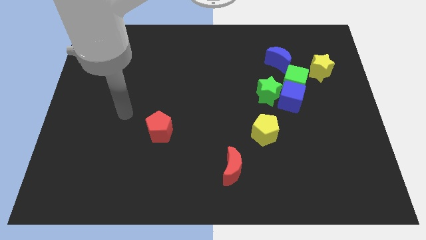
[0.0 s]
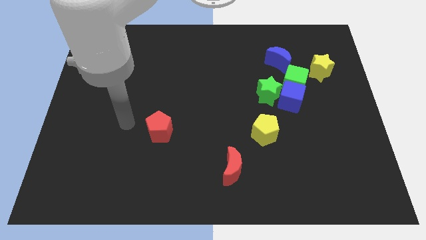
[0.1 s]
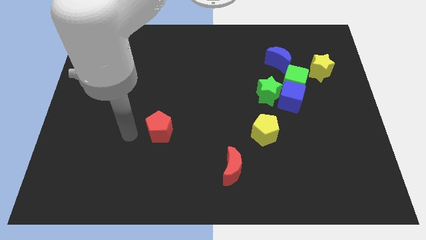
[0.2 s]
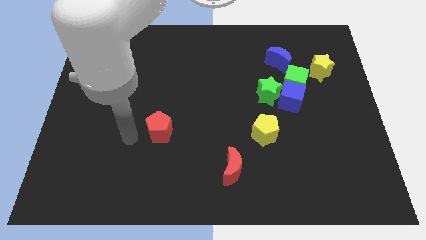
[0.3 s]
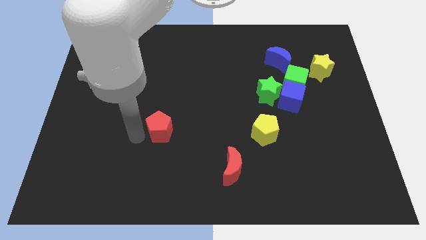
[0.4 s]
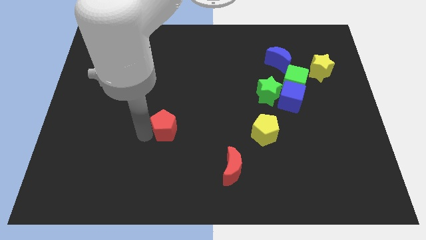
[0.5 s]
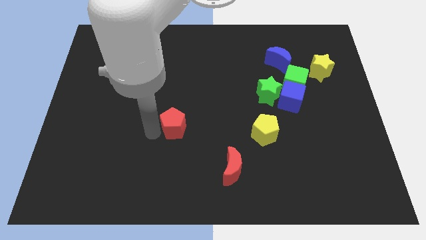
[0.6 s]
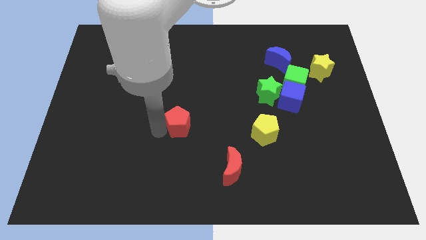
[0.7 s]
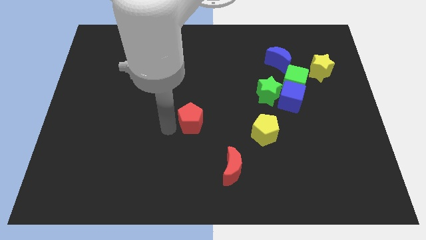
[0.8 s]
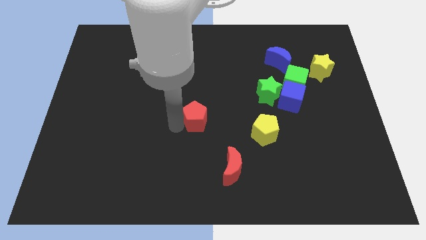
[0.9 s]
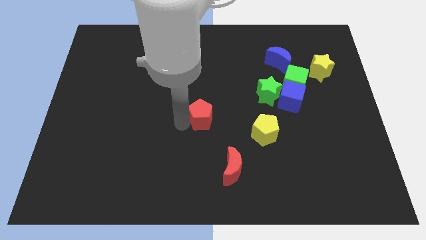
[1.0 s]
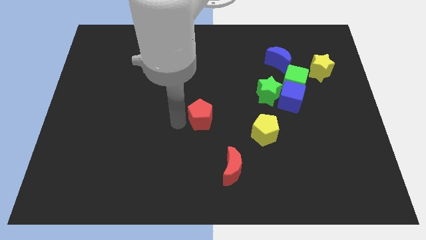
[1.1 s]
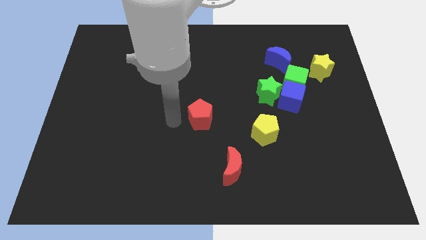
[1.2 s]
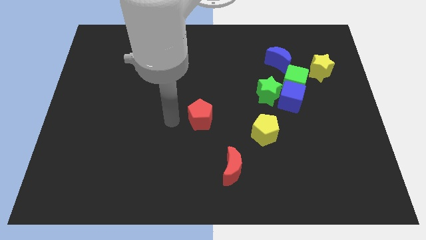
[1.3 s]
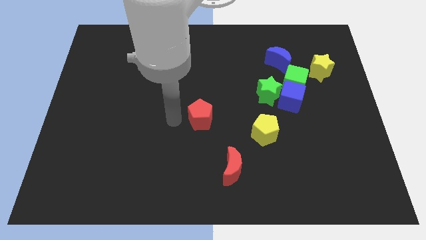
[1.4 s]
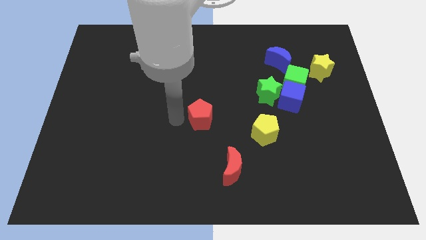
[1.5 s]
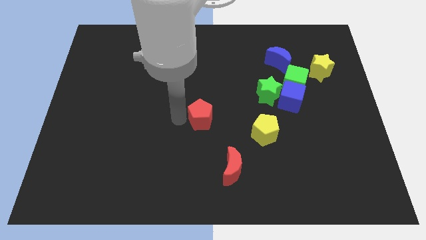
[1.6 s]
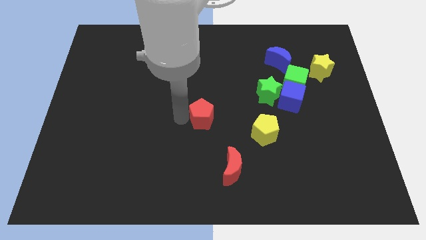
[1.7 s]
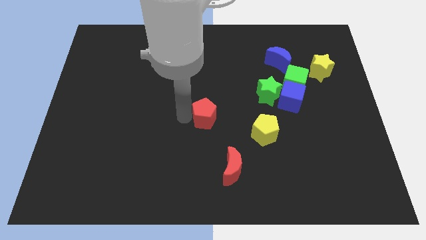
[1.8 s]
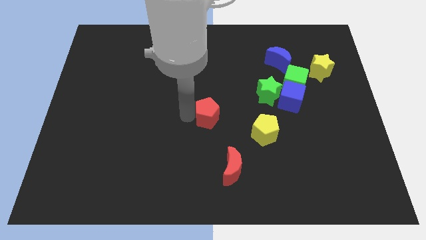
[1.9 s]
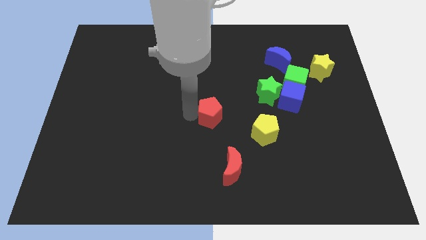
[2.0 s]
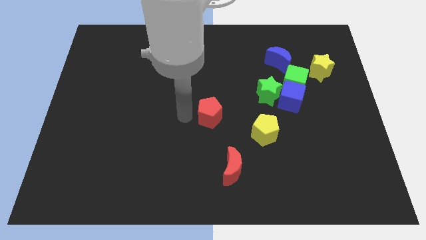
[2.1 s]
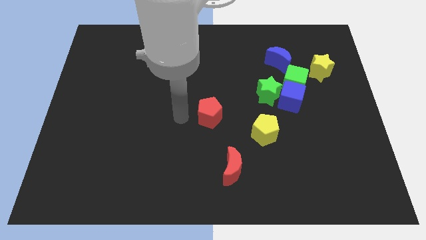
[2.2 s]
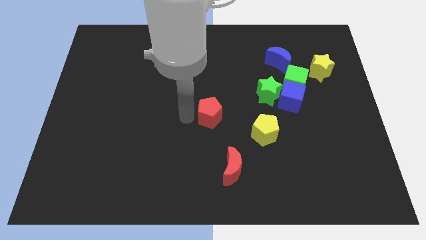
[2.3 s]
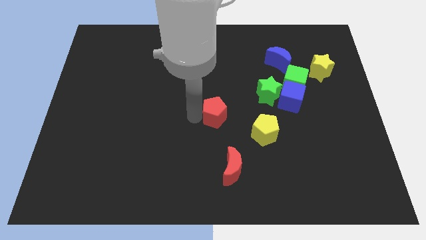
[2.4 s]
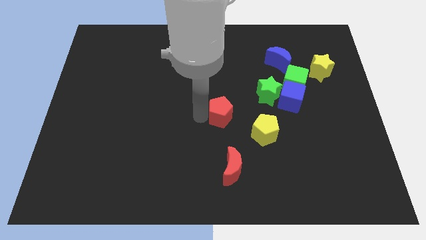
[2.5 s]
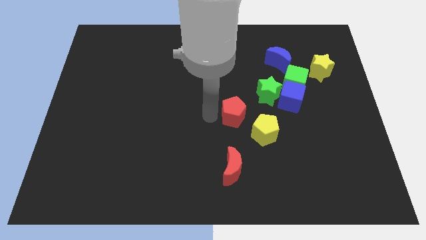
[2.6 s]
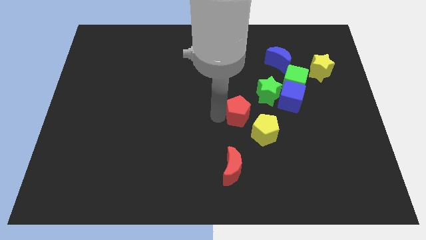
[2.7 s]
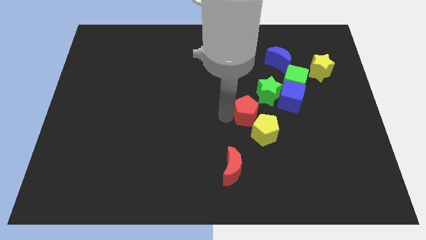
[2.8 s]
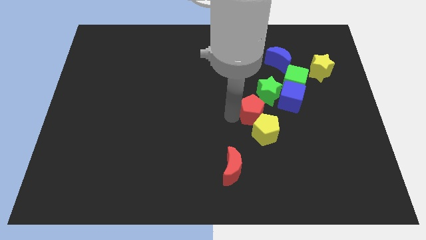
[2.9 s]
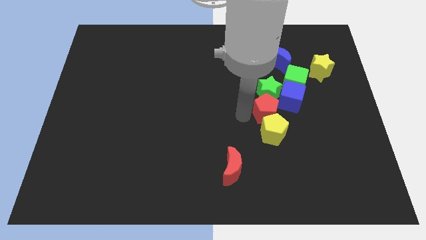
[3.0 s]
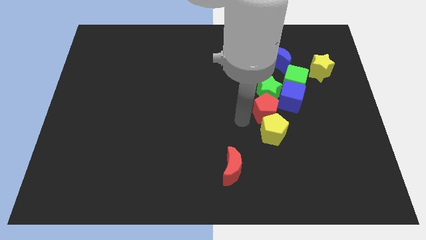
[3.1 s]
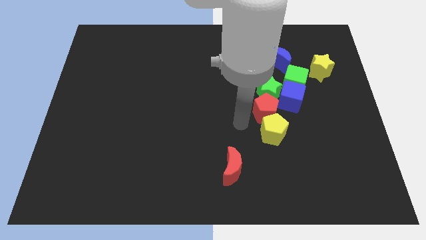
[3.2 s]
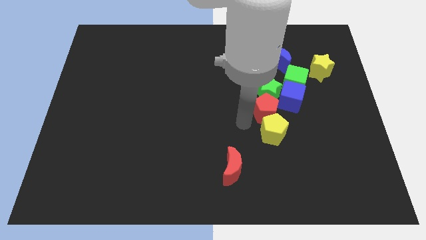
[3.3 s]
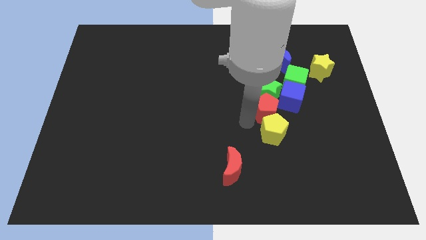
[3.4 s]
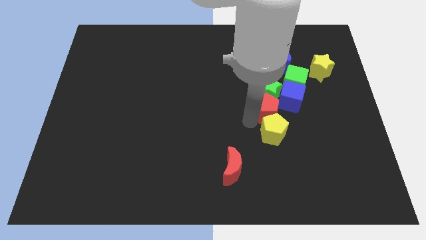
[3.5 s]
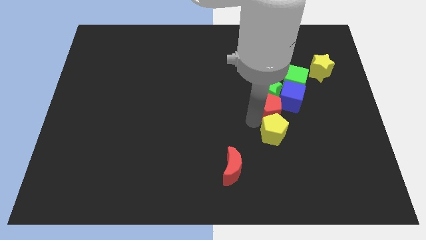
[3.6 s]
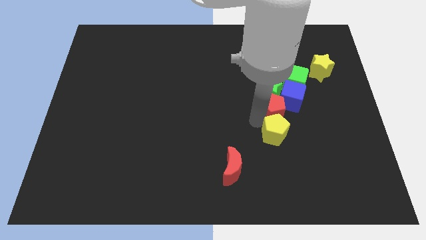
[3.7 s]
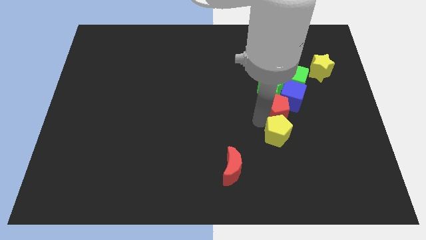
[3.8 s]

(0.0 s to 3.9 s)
move the red pentagon close to the blue cube

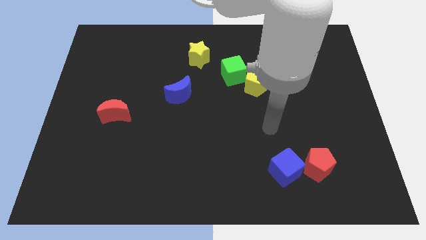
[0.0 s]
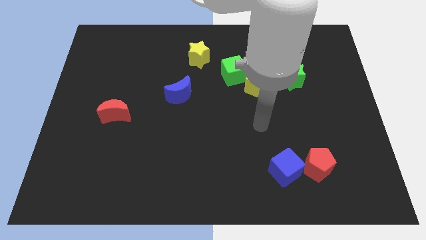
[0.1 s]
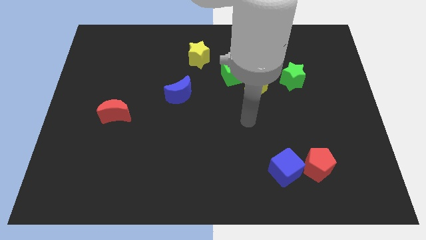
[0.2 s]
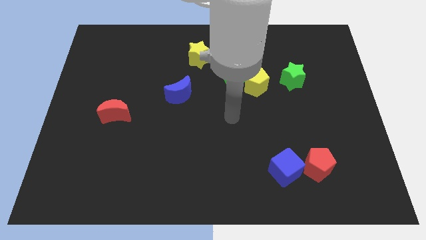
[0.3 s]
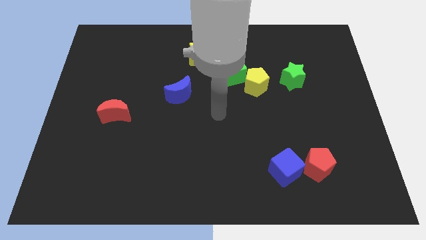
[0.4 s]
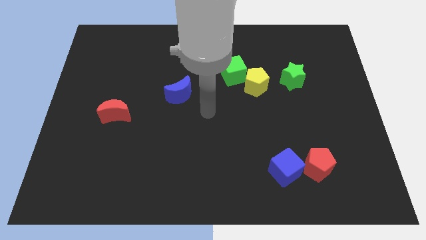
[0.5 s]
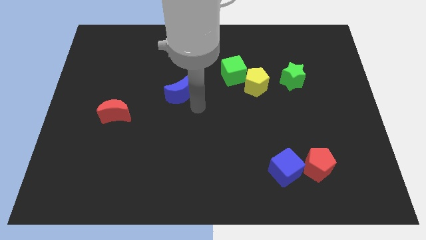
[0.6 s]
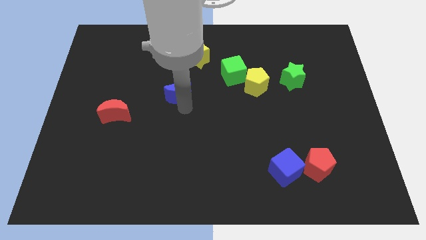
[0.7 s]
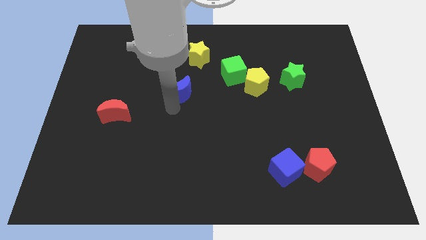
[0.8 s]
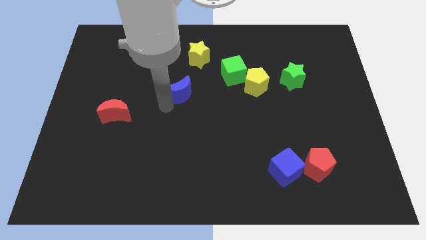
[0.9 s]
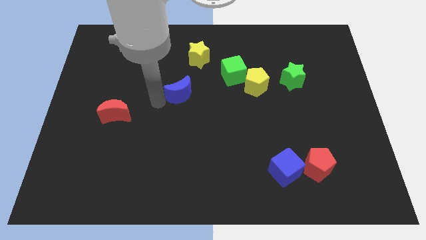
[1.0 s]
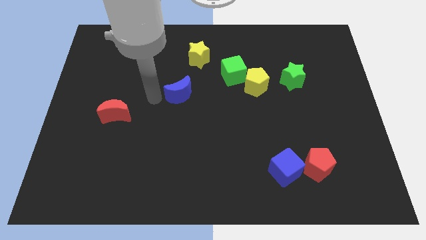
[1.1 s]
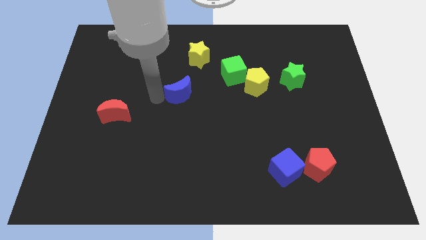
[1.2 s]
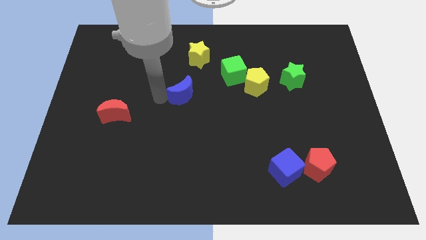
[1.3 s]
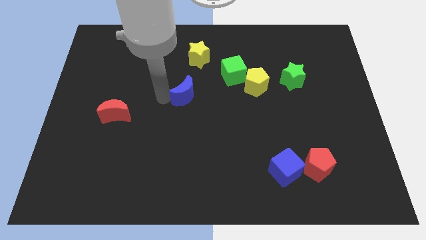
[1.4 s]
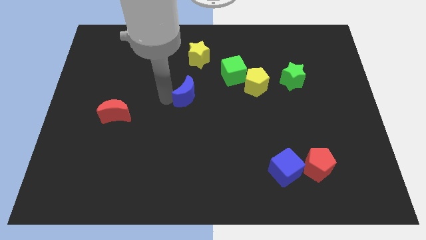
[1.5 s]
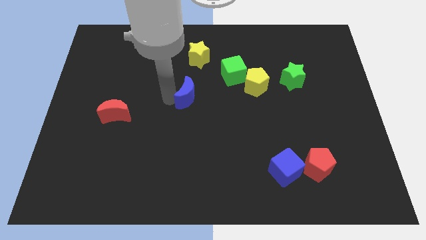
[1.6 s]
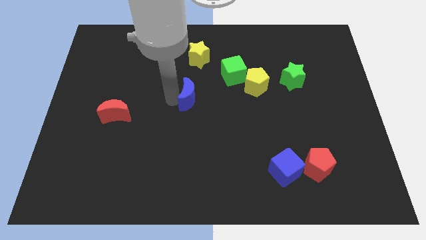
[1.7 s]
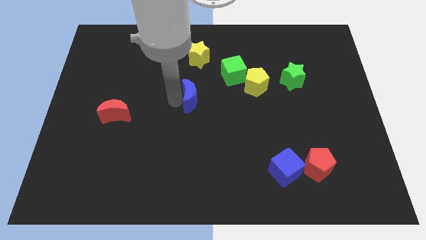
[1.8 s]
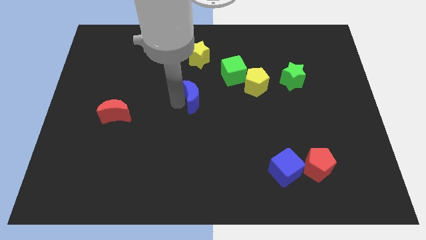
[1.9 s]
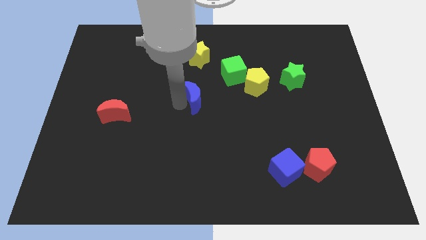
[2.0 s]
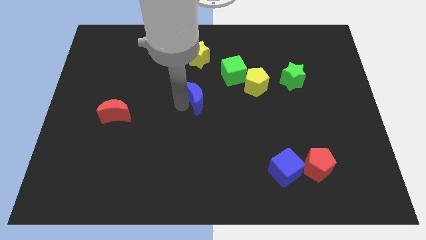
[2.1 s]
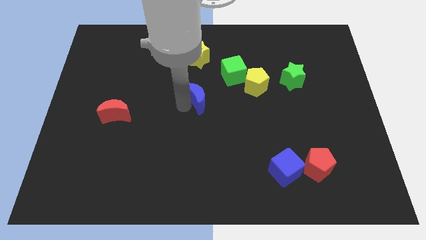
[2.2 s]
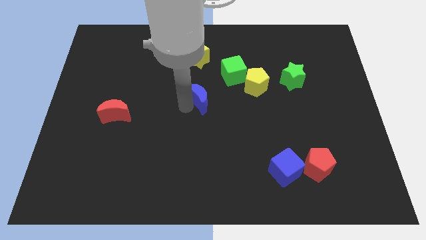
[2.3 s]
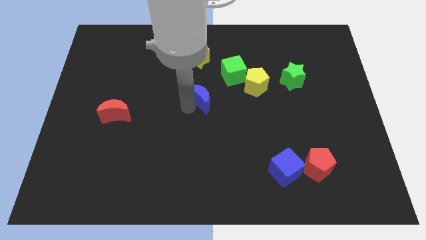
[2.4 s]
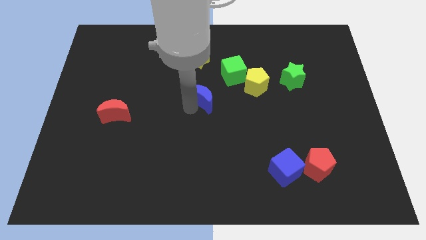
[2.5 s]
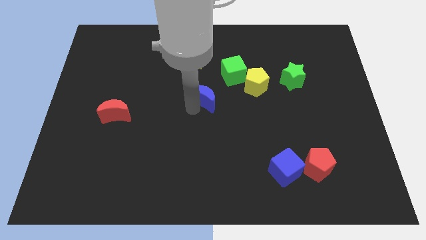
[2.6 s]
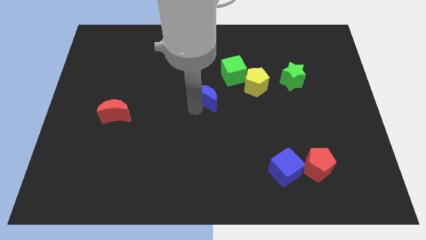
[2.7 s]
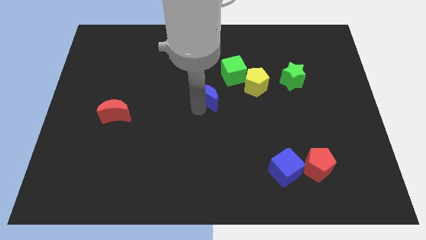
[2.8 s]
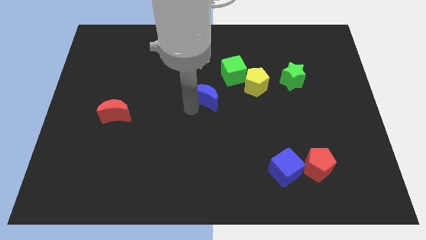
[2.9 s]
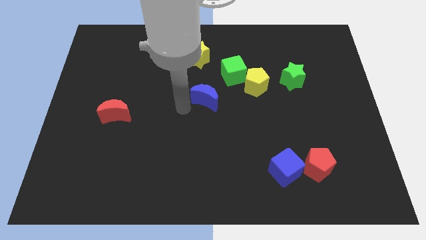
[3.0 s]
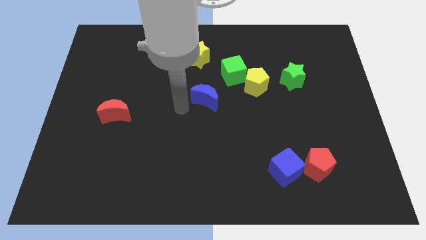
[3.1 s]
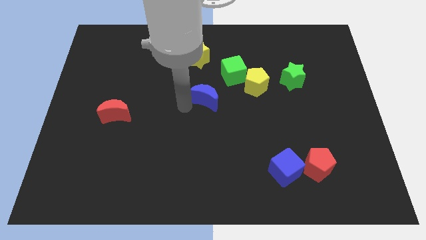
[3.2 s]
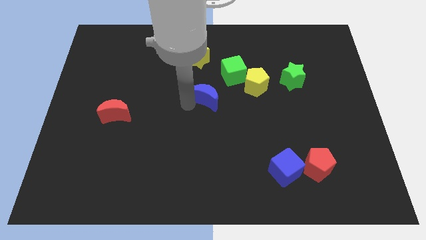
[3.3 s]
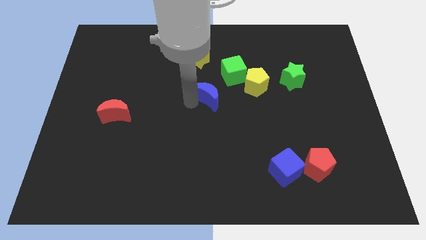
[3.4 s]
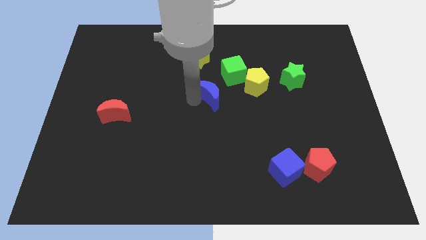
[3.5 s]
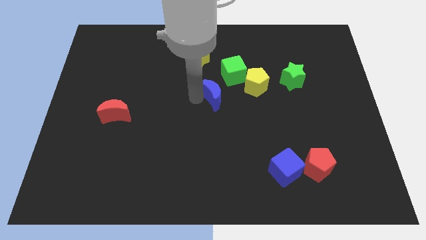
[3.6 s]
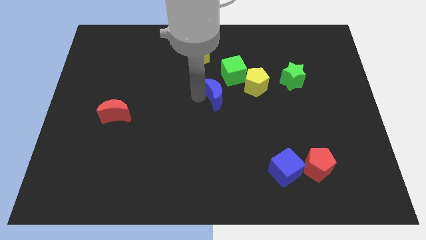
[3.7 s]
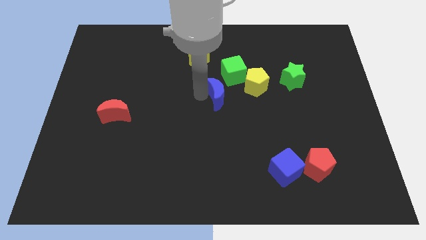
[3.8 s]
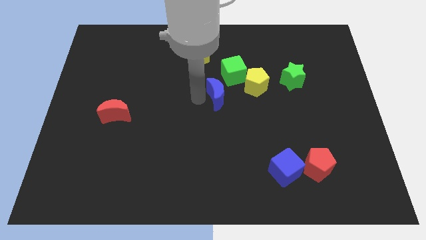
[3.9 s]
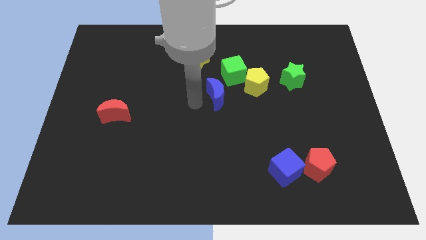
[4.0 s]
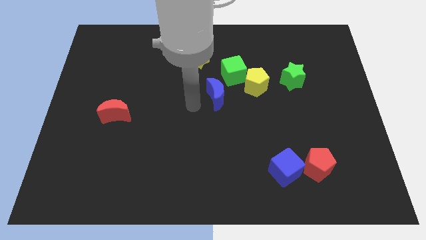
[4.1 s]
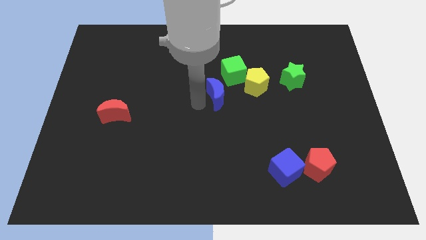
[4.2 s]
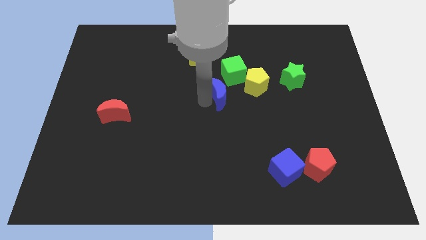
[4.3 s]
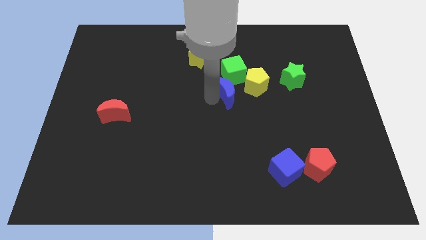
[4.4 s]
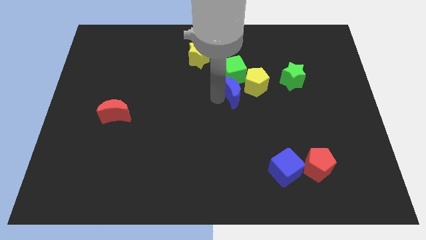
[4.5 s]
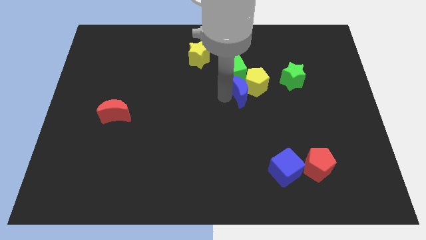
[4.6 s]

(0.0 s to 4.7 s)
move the blue moon to the yellow pentagon
